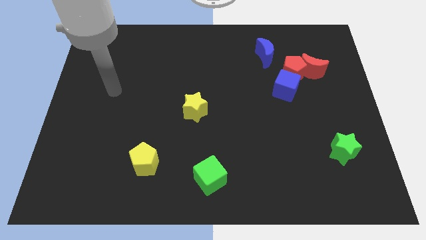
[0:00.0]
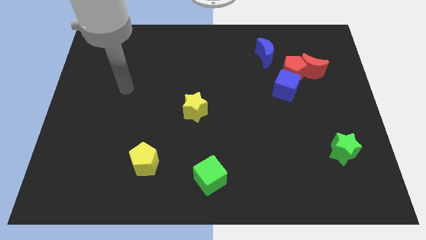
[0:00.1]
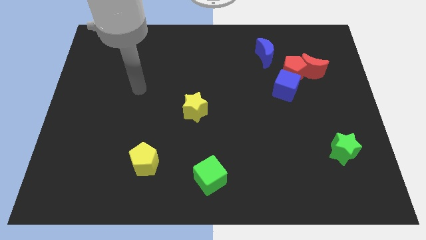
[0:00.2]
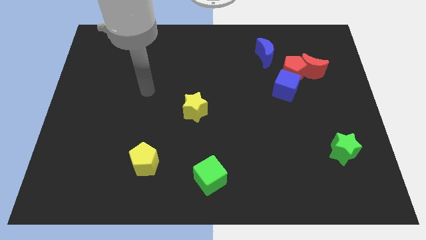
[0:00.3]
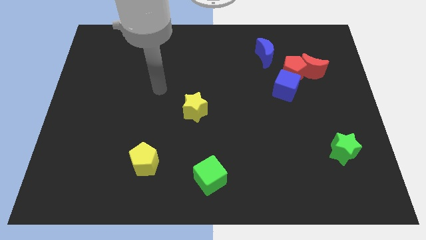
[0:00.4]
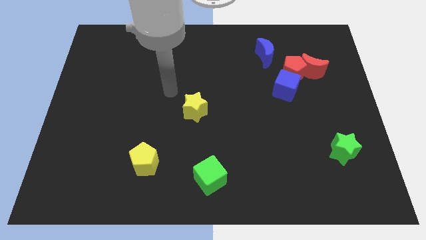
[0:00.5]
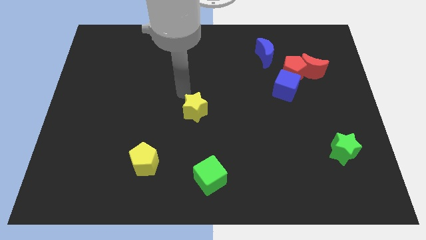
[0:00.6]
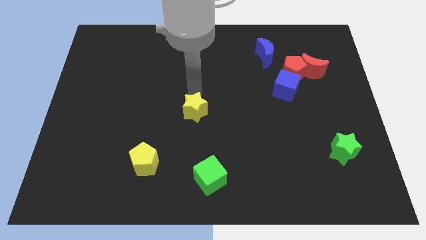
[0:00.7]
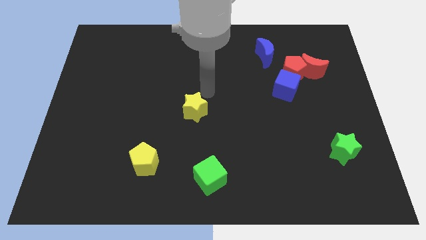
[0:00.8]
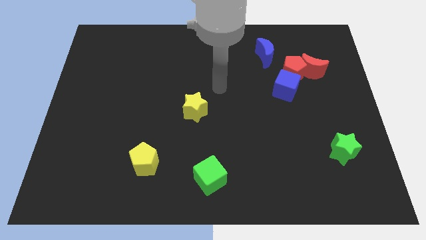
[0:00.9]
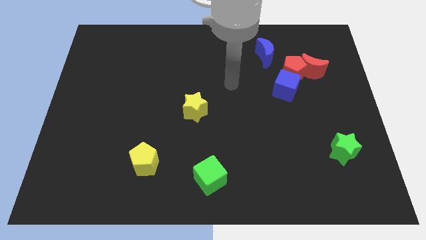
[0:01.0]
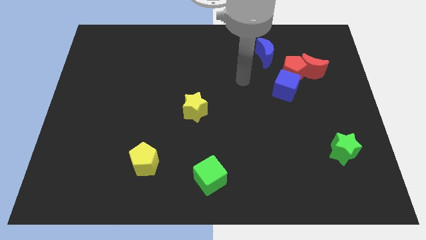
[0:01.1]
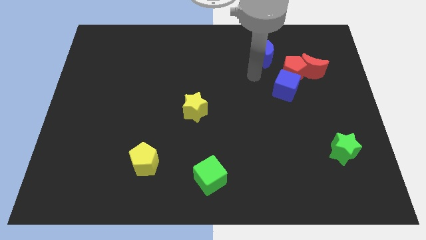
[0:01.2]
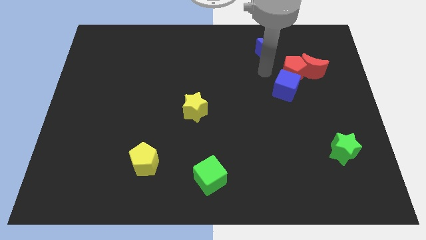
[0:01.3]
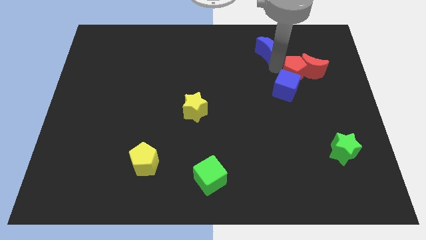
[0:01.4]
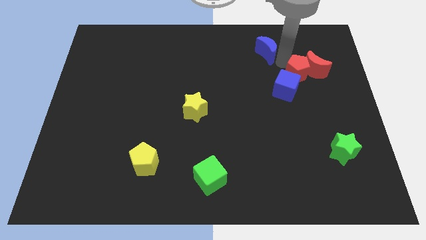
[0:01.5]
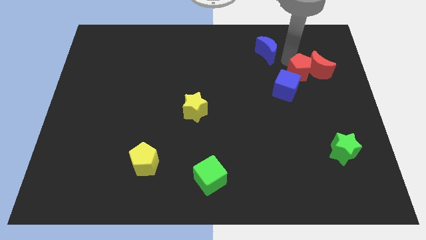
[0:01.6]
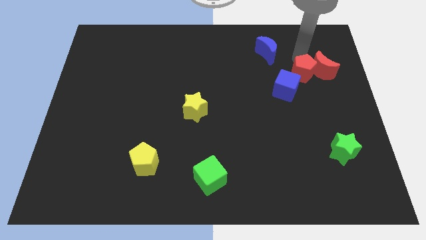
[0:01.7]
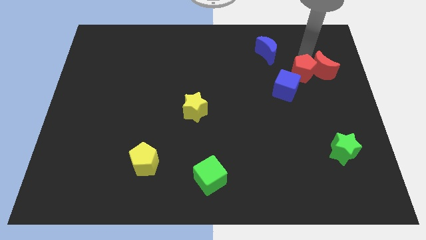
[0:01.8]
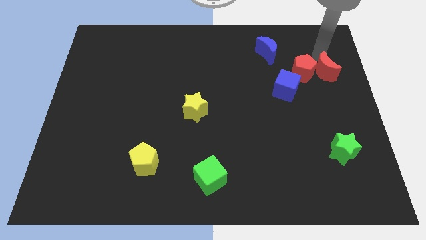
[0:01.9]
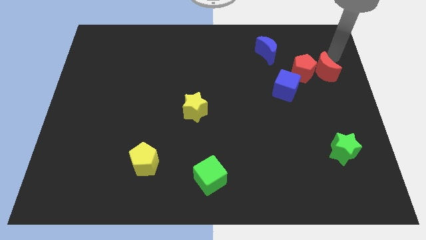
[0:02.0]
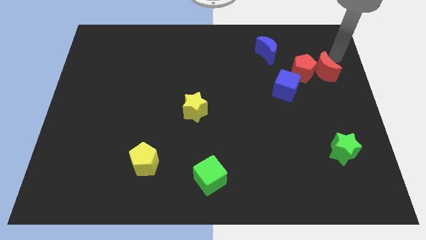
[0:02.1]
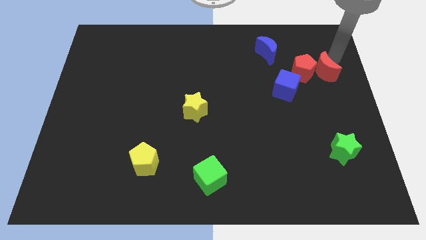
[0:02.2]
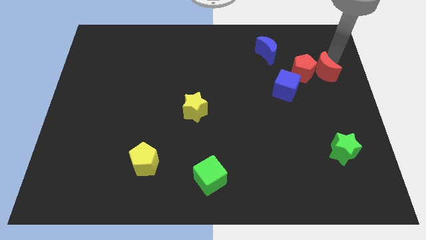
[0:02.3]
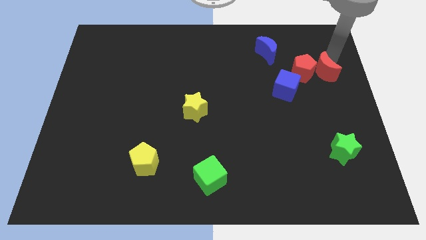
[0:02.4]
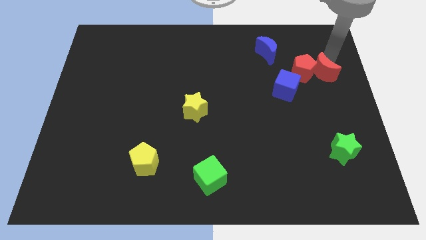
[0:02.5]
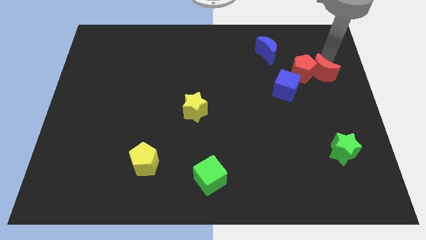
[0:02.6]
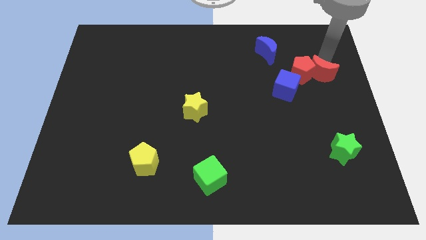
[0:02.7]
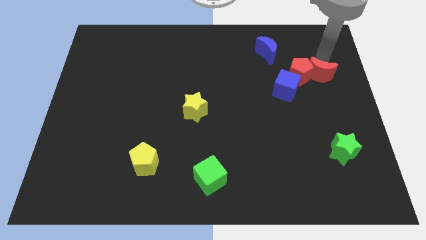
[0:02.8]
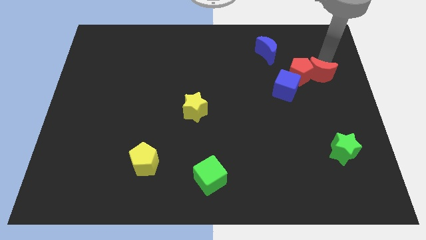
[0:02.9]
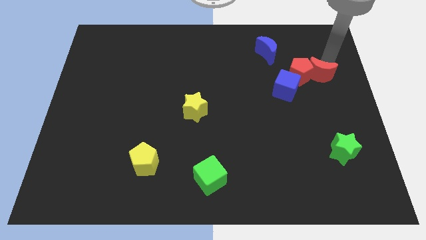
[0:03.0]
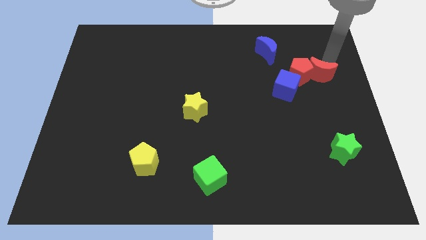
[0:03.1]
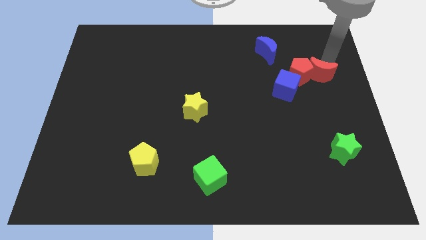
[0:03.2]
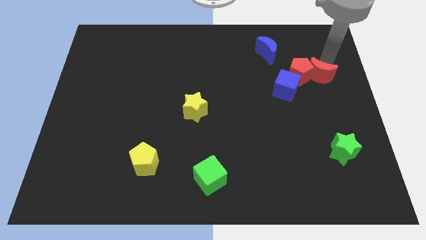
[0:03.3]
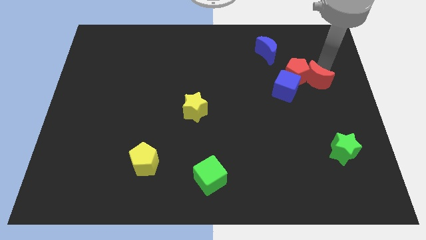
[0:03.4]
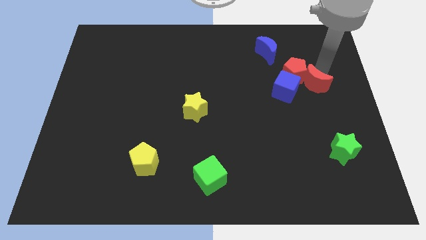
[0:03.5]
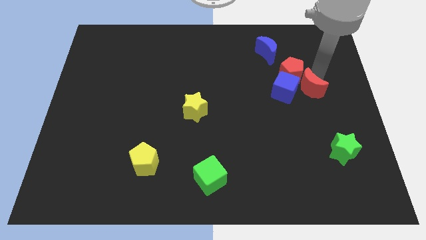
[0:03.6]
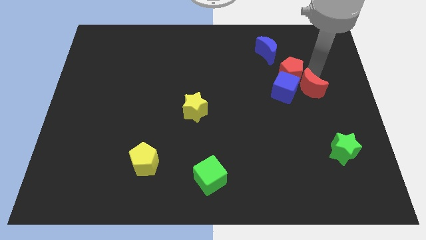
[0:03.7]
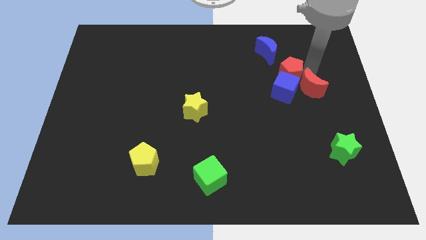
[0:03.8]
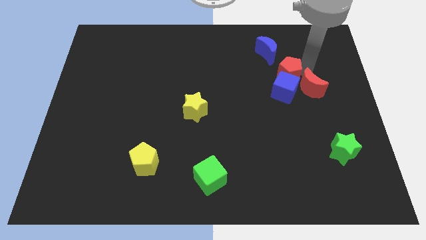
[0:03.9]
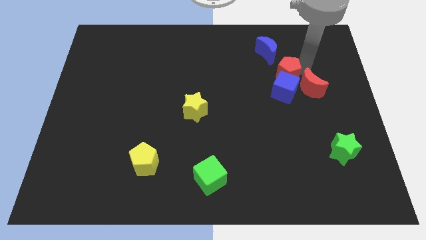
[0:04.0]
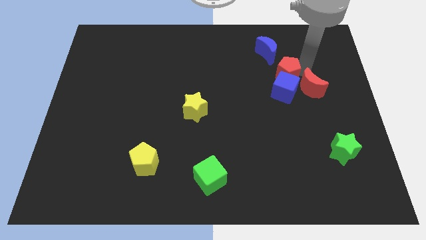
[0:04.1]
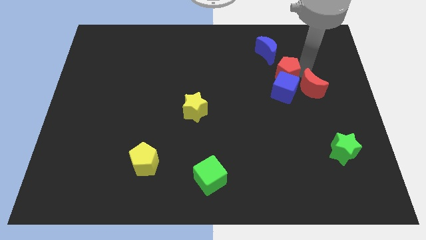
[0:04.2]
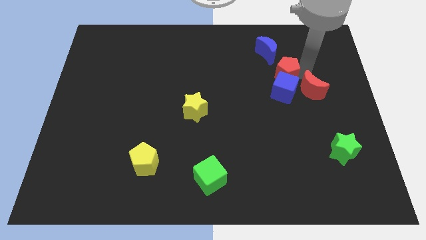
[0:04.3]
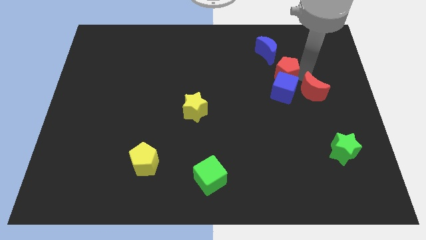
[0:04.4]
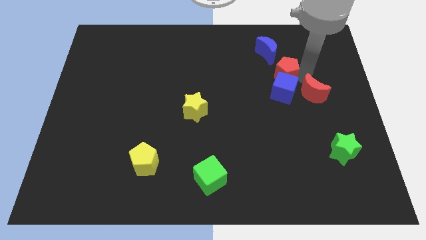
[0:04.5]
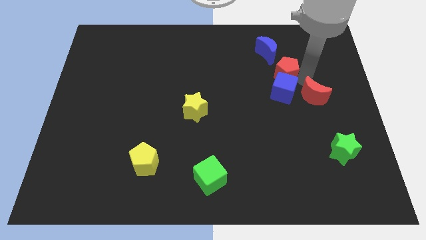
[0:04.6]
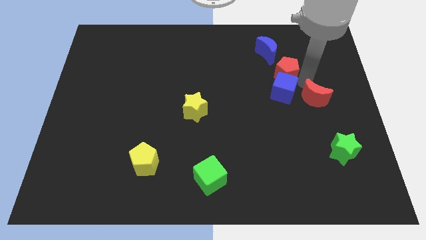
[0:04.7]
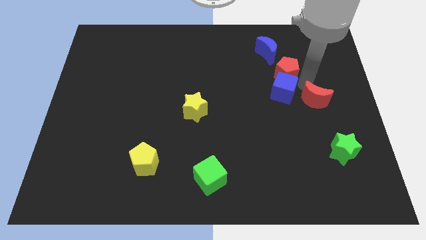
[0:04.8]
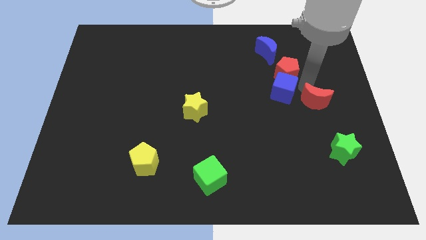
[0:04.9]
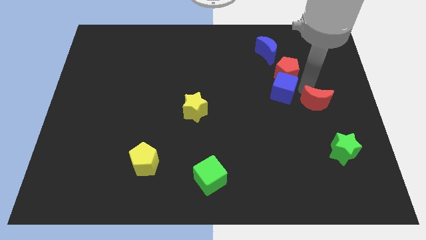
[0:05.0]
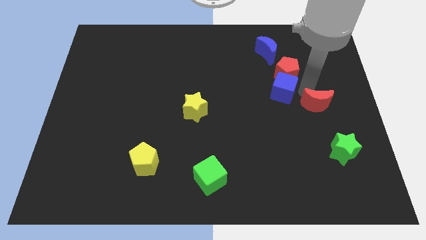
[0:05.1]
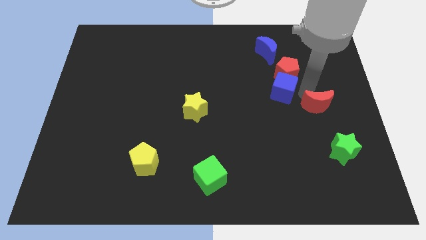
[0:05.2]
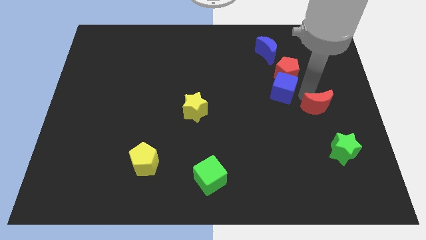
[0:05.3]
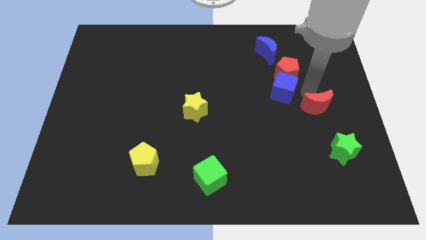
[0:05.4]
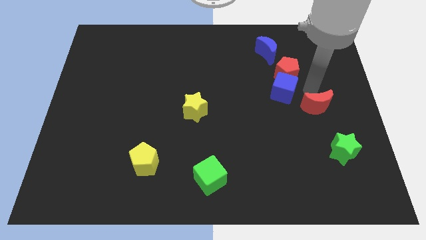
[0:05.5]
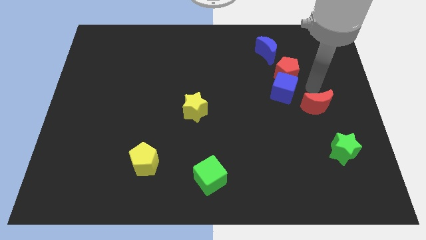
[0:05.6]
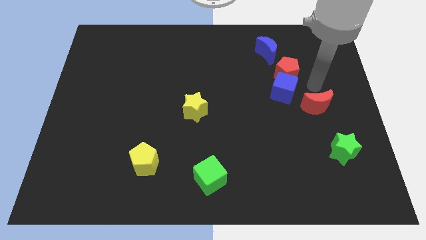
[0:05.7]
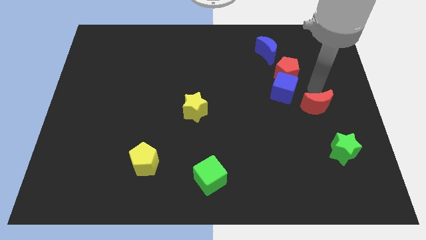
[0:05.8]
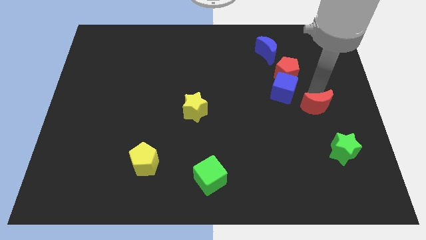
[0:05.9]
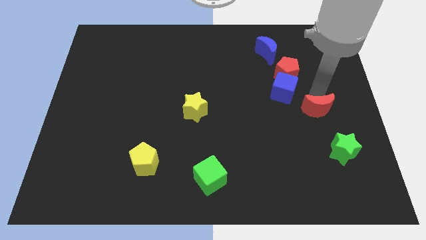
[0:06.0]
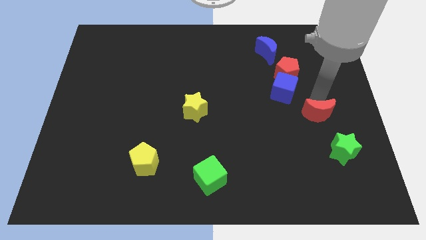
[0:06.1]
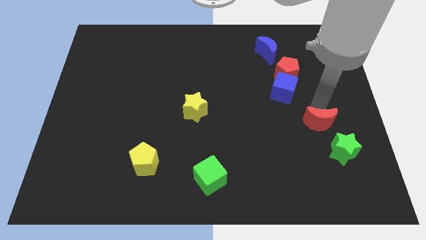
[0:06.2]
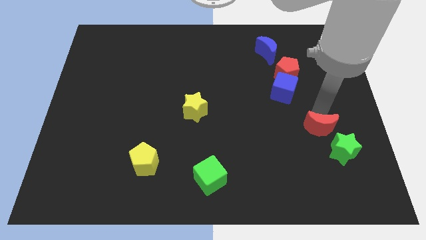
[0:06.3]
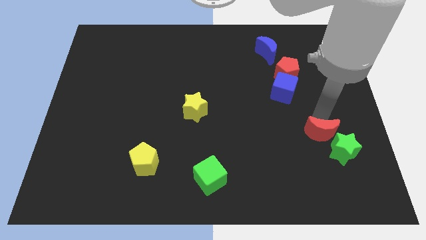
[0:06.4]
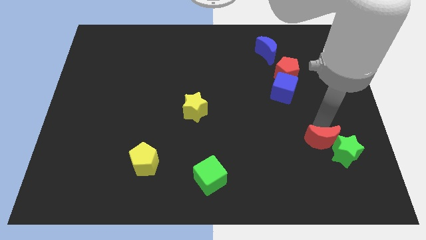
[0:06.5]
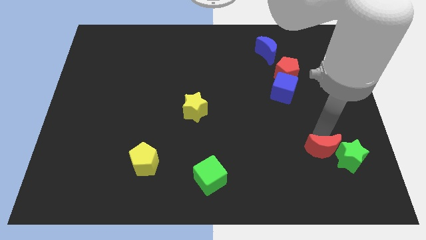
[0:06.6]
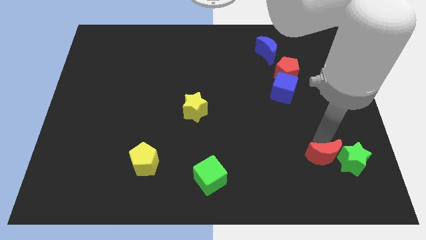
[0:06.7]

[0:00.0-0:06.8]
move the red moon to the bottom left side of the green star

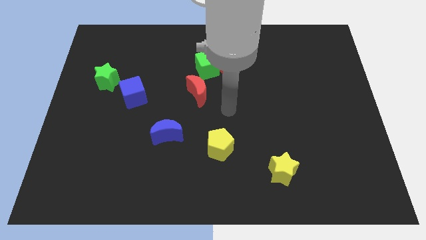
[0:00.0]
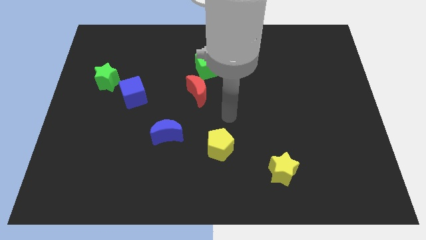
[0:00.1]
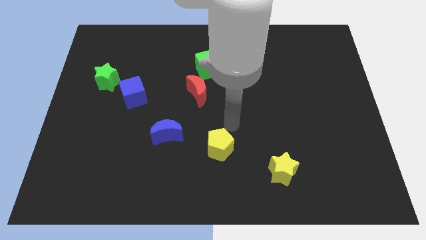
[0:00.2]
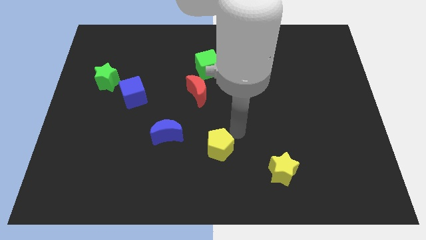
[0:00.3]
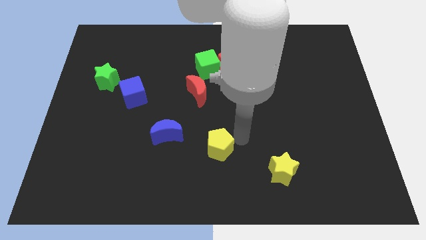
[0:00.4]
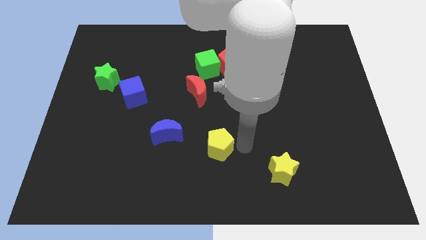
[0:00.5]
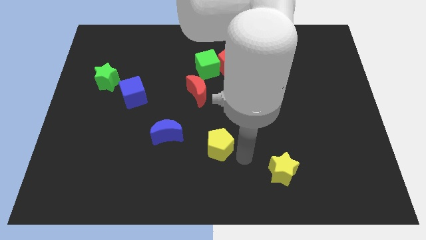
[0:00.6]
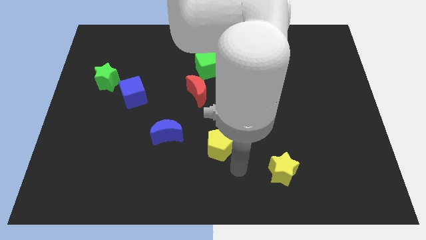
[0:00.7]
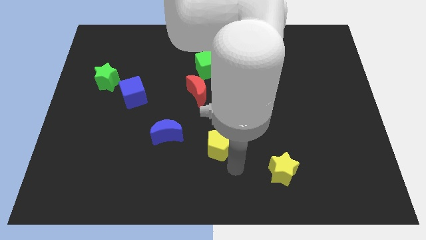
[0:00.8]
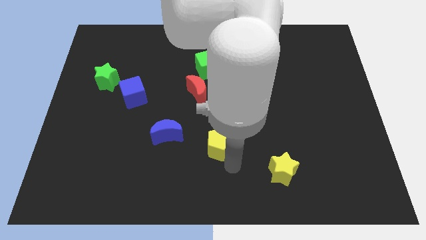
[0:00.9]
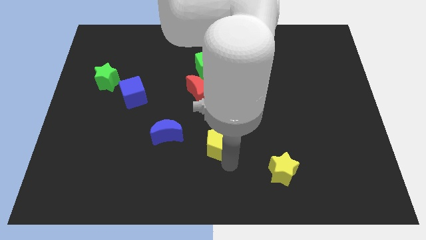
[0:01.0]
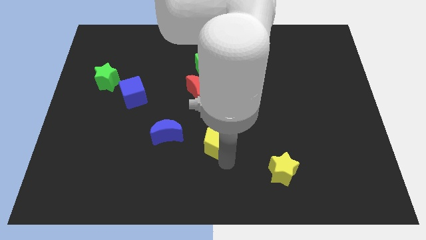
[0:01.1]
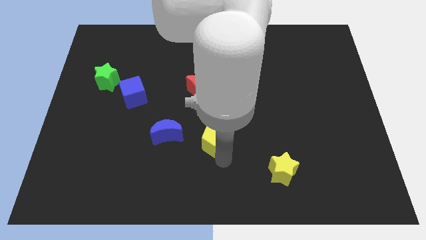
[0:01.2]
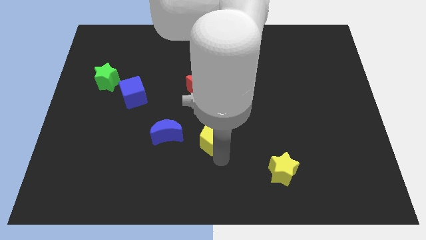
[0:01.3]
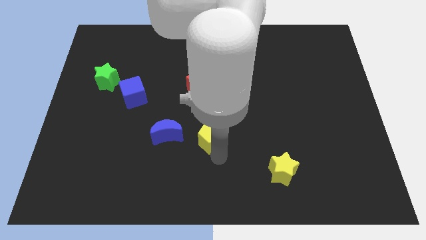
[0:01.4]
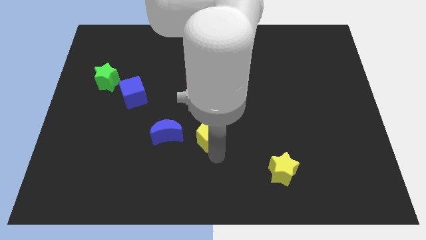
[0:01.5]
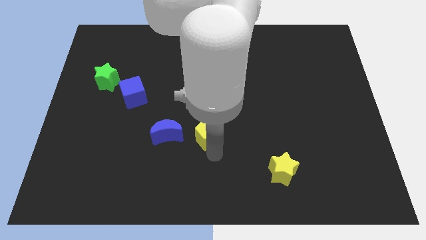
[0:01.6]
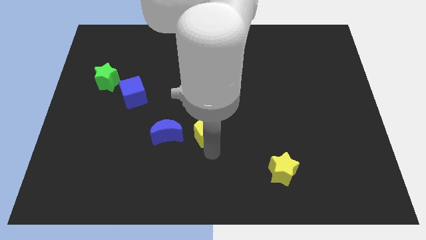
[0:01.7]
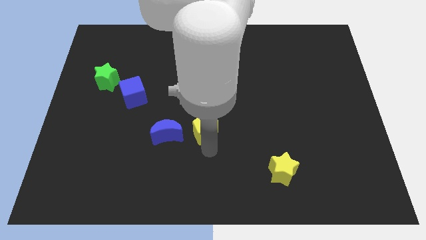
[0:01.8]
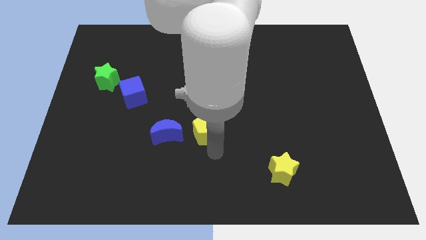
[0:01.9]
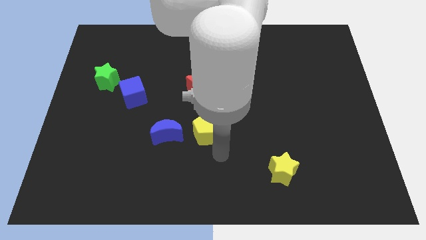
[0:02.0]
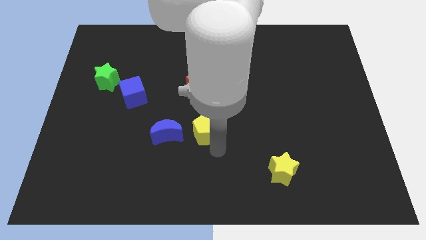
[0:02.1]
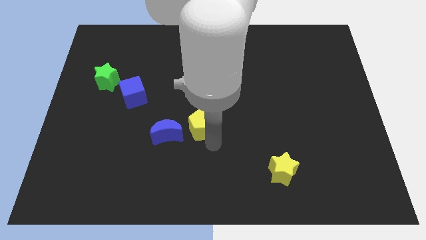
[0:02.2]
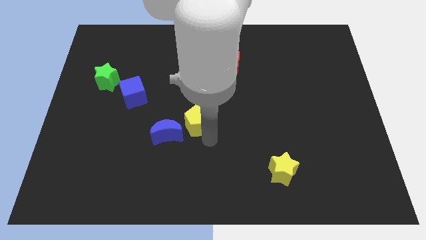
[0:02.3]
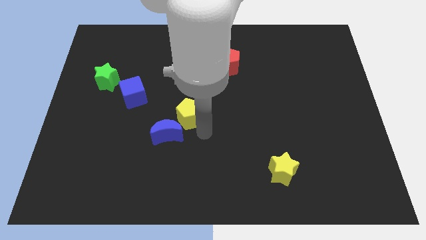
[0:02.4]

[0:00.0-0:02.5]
move the yellow pentagon above the blue moon
